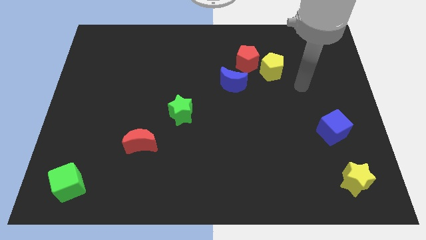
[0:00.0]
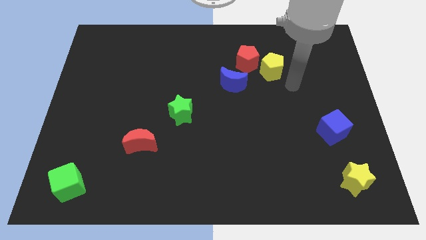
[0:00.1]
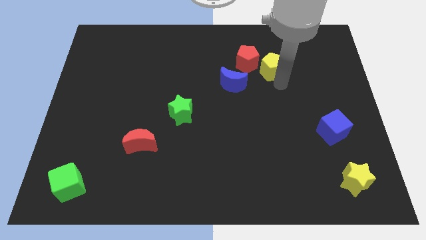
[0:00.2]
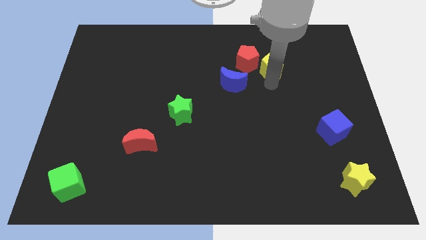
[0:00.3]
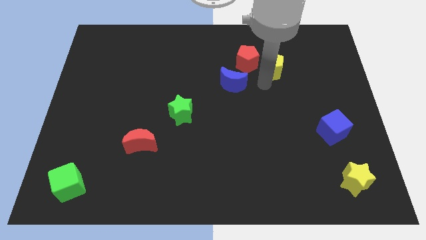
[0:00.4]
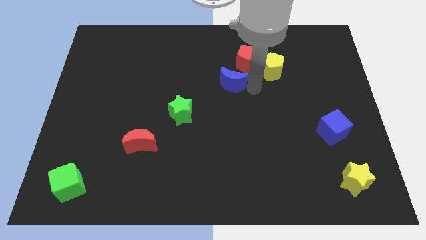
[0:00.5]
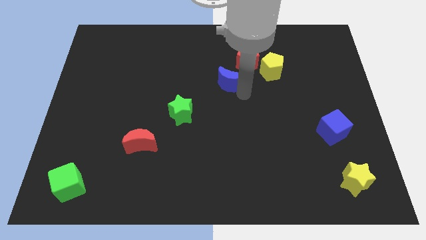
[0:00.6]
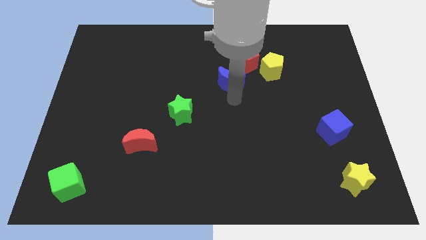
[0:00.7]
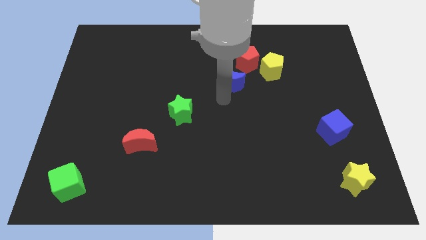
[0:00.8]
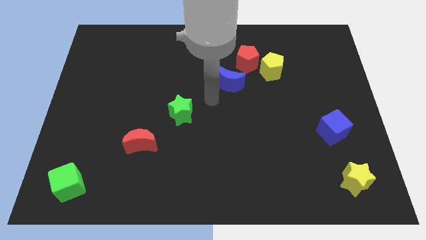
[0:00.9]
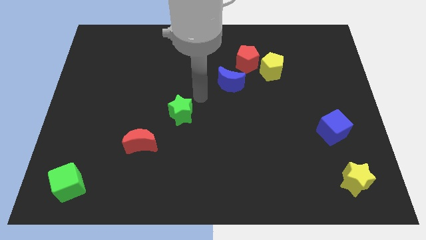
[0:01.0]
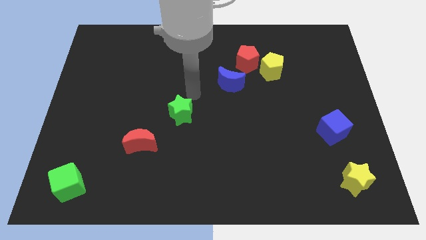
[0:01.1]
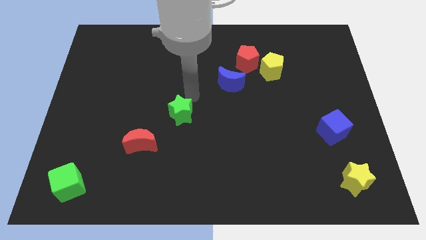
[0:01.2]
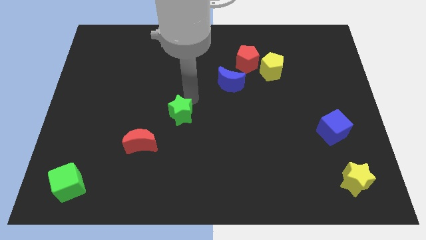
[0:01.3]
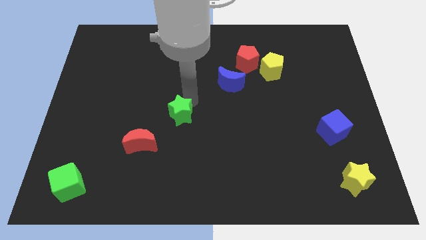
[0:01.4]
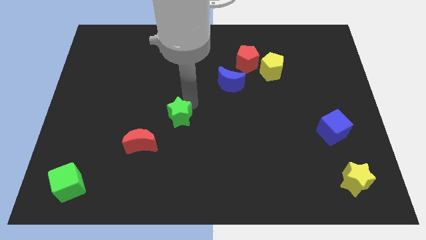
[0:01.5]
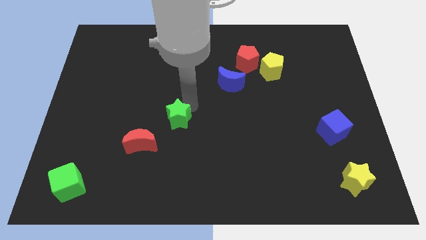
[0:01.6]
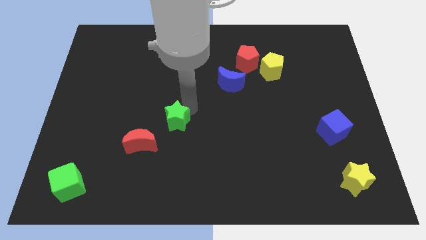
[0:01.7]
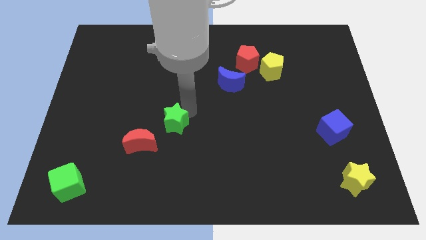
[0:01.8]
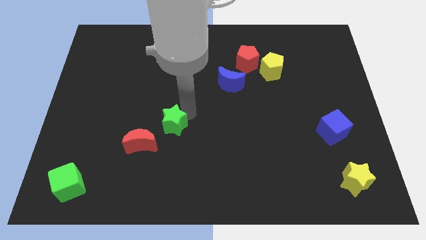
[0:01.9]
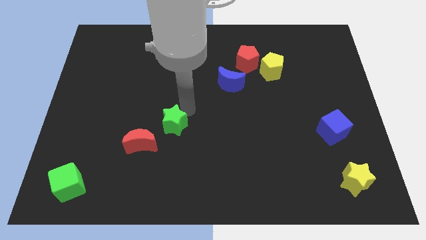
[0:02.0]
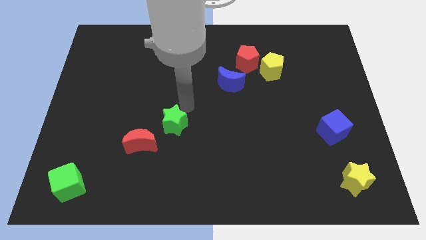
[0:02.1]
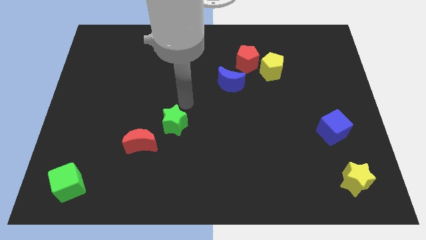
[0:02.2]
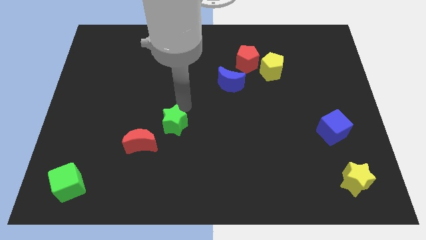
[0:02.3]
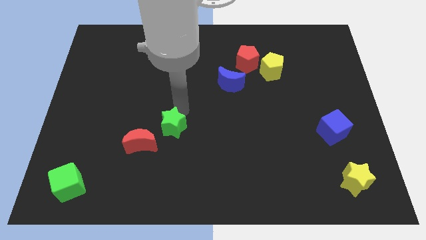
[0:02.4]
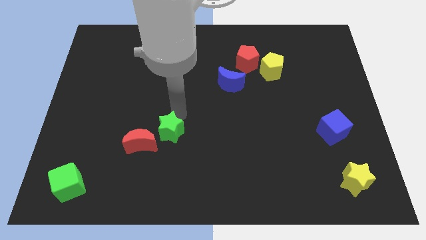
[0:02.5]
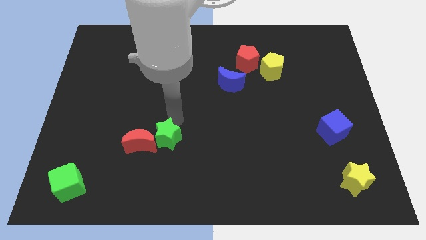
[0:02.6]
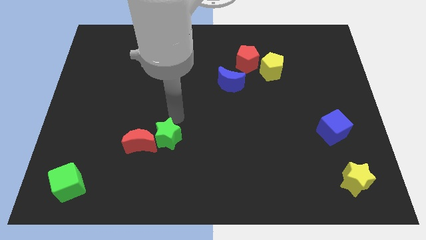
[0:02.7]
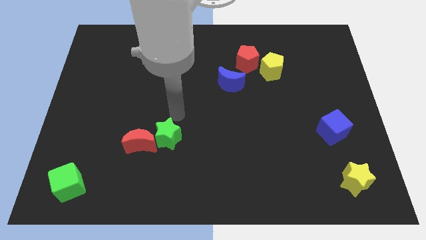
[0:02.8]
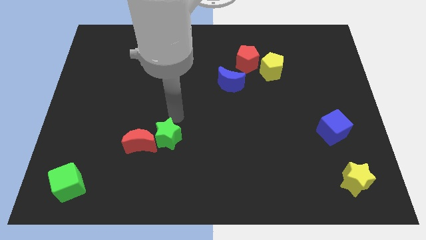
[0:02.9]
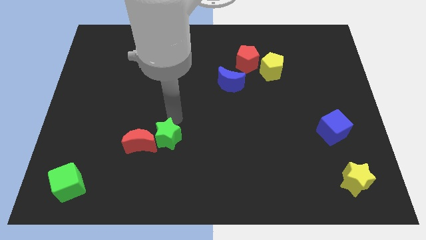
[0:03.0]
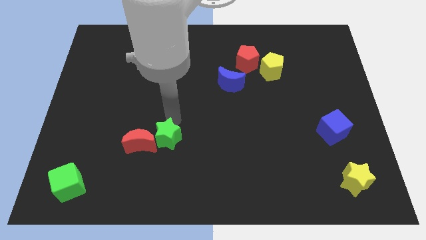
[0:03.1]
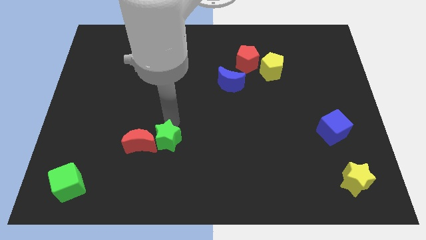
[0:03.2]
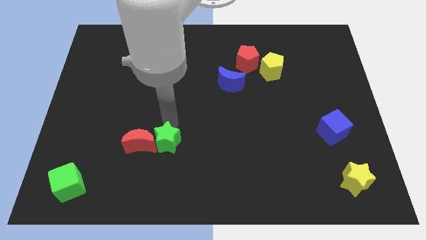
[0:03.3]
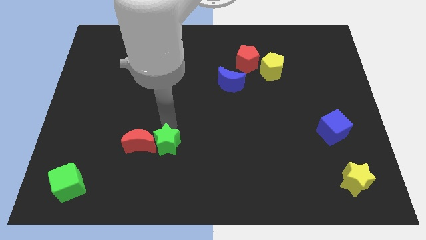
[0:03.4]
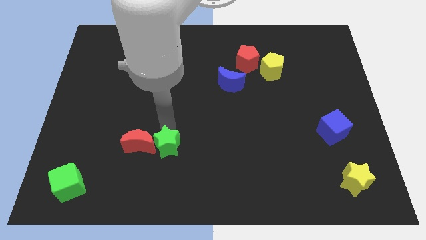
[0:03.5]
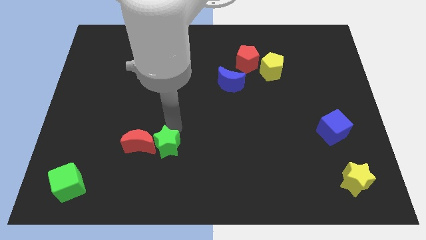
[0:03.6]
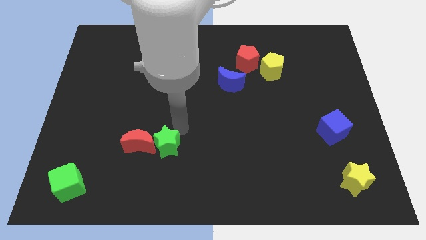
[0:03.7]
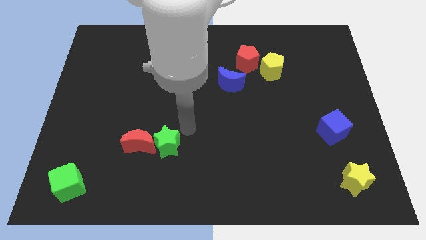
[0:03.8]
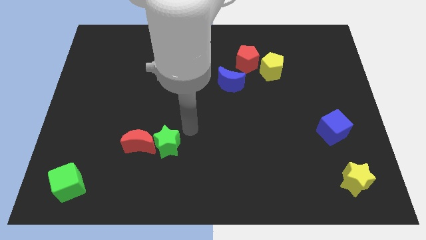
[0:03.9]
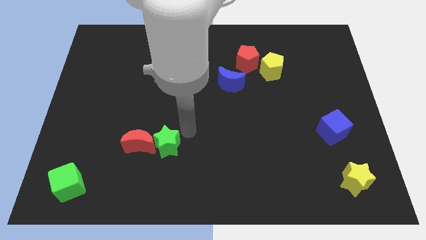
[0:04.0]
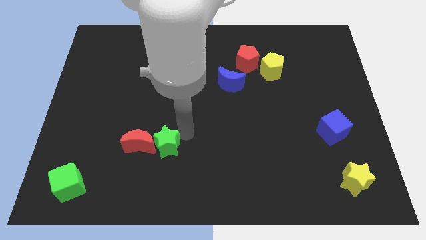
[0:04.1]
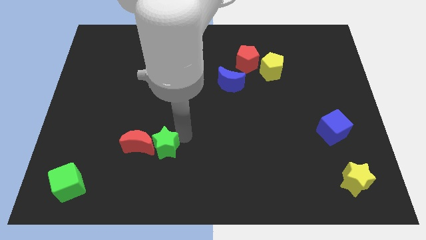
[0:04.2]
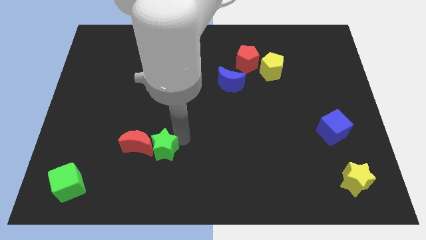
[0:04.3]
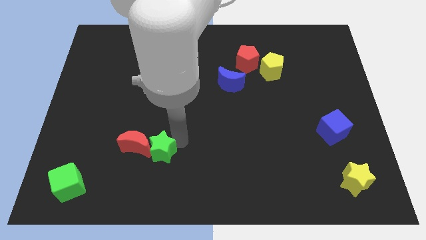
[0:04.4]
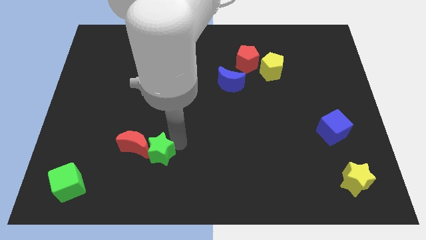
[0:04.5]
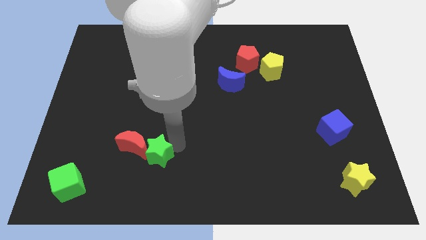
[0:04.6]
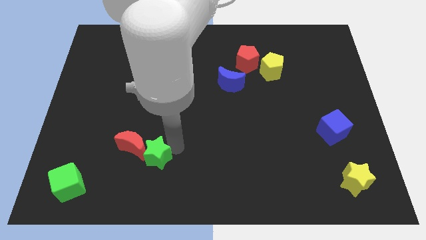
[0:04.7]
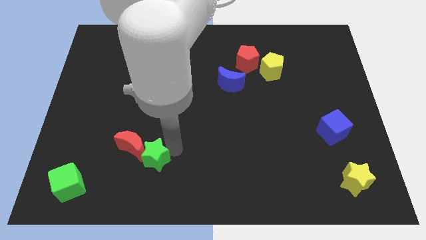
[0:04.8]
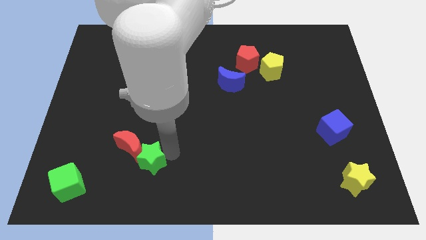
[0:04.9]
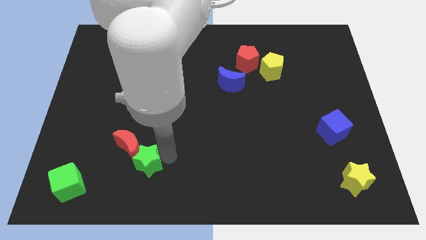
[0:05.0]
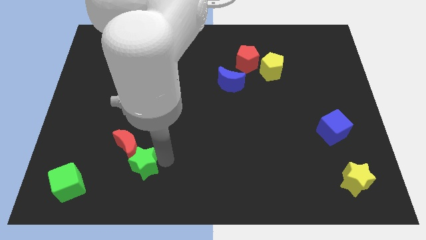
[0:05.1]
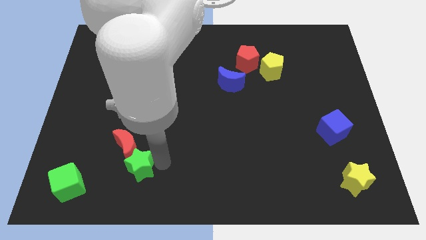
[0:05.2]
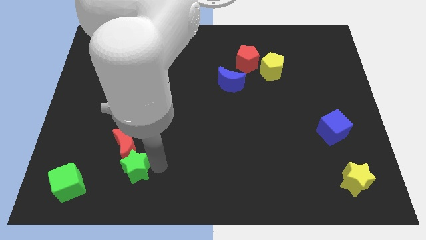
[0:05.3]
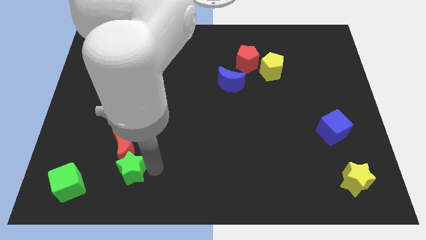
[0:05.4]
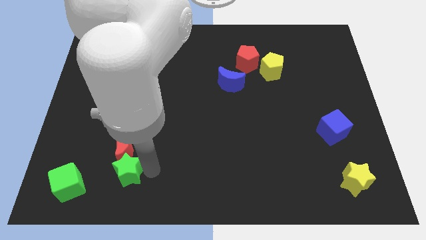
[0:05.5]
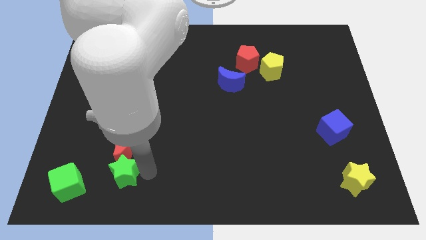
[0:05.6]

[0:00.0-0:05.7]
put the green star to the bottom left side of the red moon
